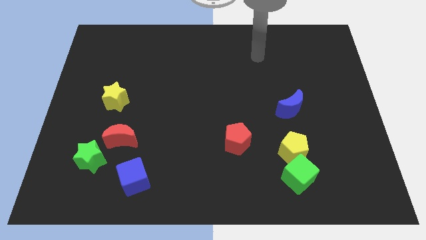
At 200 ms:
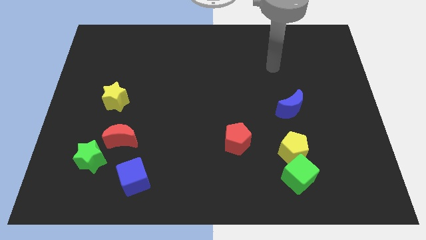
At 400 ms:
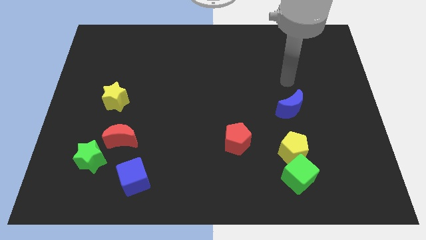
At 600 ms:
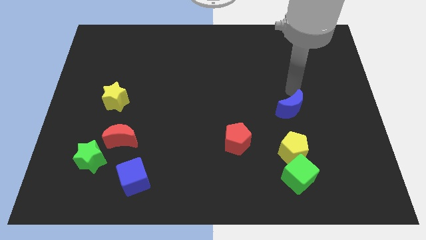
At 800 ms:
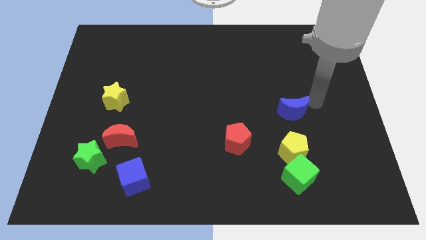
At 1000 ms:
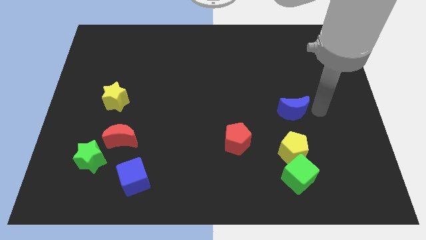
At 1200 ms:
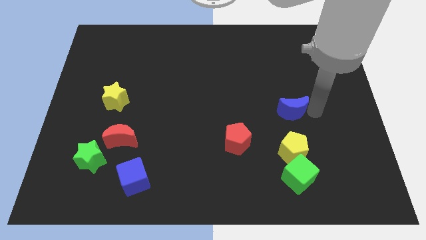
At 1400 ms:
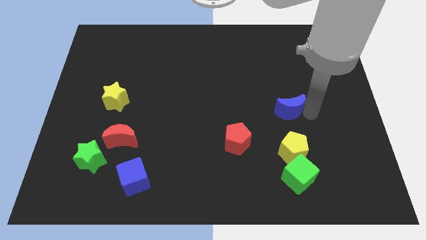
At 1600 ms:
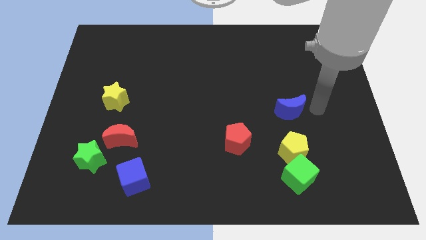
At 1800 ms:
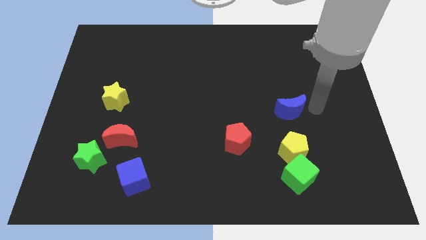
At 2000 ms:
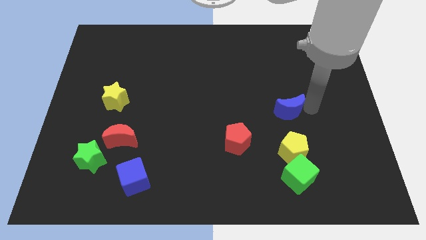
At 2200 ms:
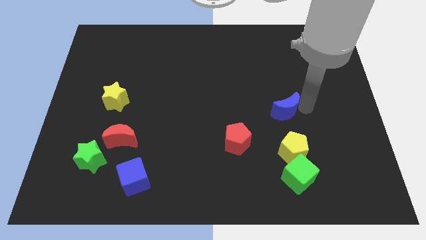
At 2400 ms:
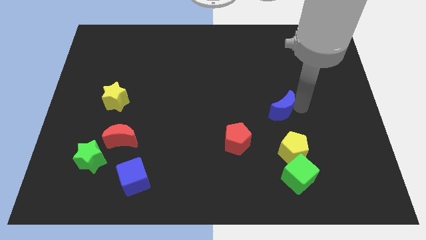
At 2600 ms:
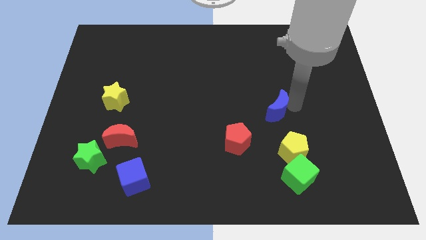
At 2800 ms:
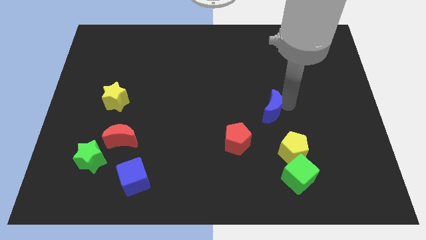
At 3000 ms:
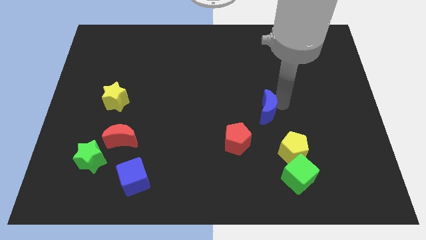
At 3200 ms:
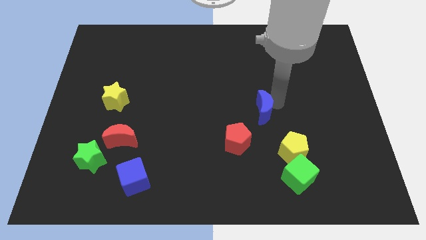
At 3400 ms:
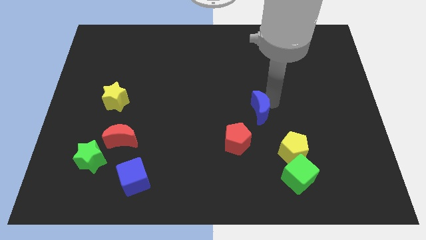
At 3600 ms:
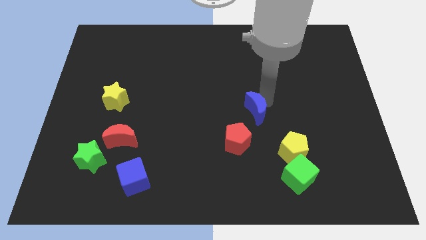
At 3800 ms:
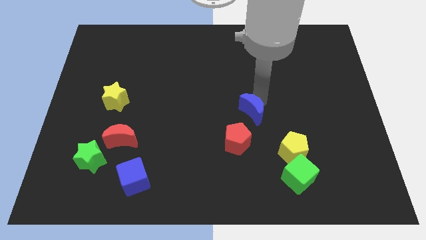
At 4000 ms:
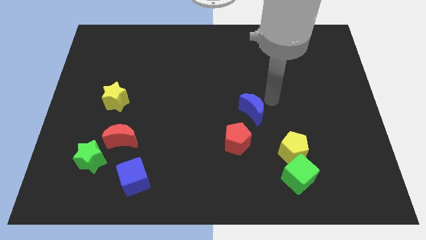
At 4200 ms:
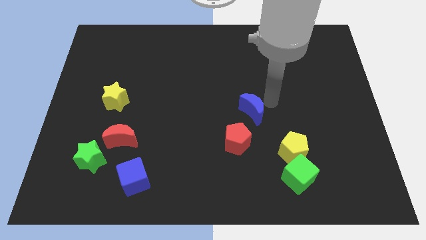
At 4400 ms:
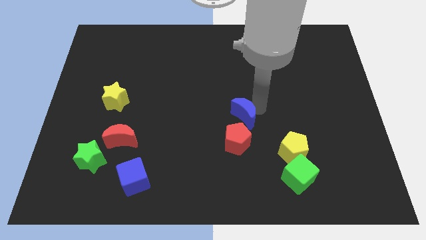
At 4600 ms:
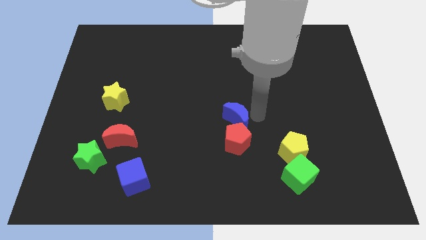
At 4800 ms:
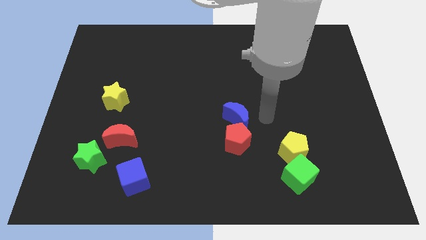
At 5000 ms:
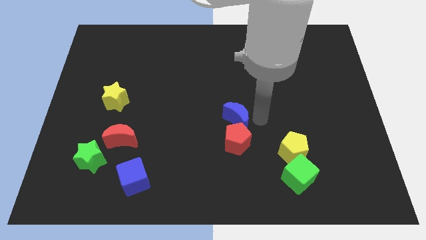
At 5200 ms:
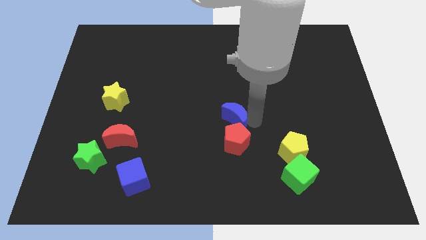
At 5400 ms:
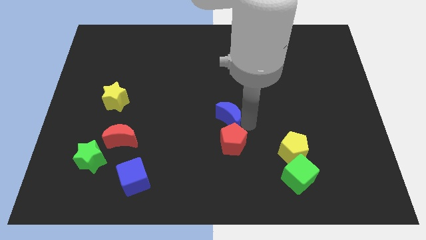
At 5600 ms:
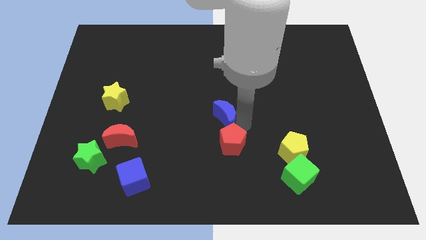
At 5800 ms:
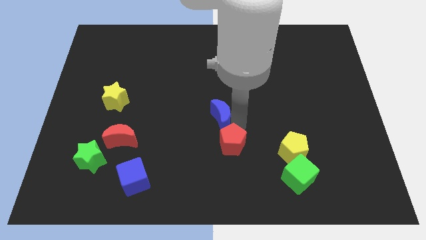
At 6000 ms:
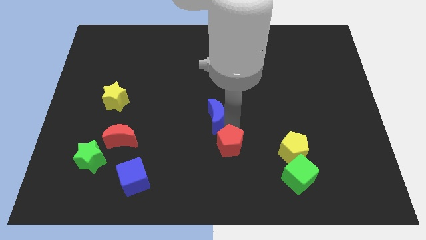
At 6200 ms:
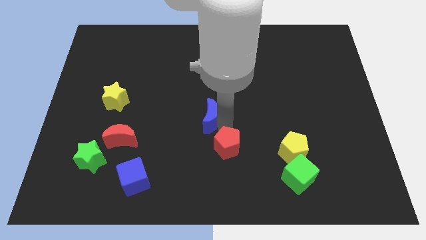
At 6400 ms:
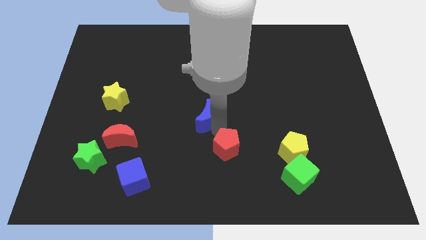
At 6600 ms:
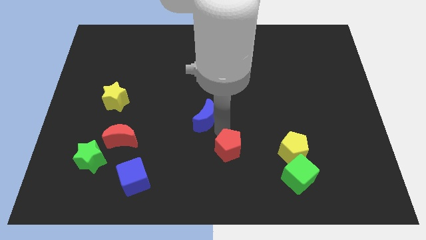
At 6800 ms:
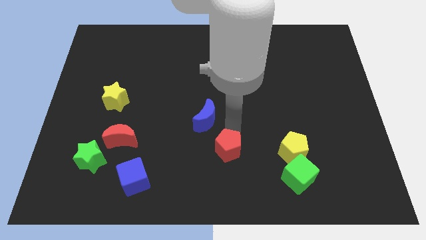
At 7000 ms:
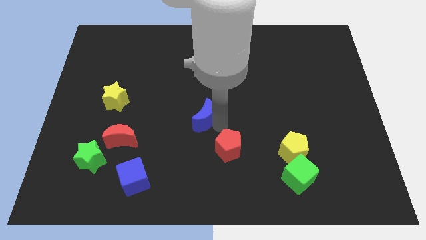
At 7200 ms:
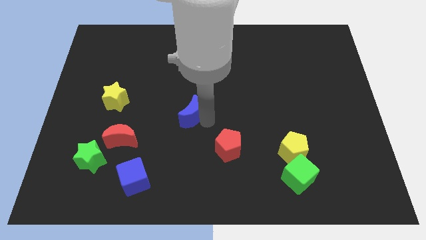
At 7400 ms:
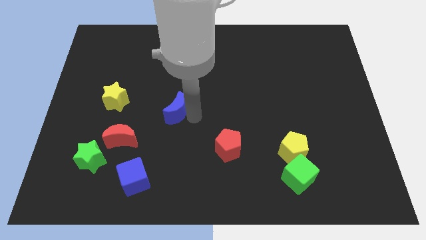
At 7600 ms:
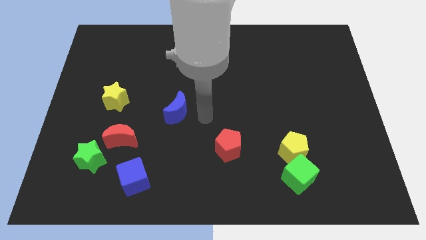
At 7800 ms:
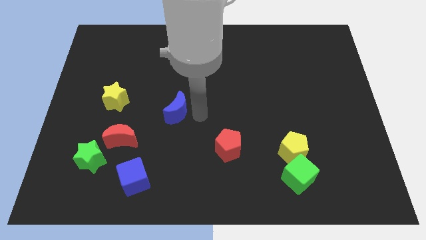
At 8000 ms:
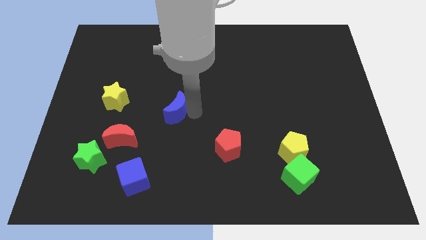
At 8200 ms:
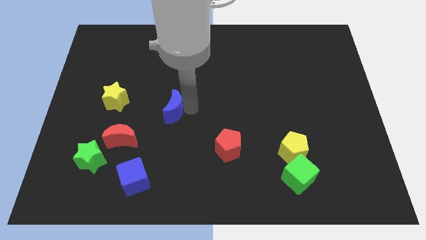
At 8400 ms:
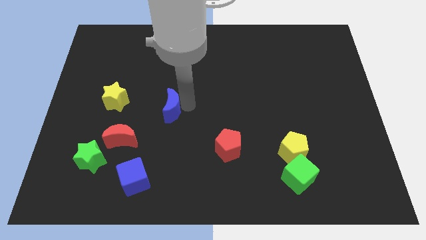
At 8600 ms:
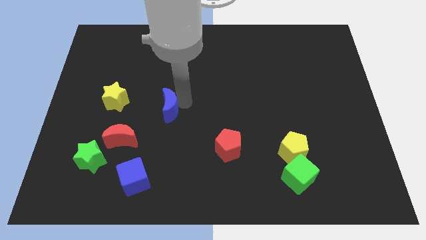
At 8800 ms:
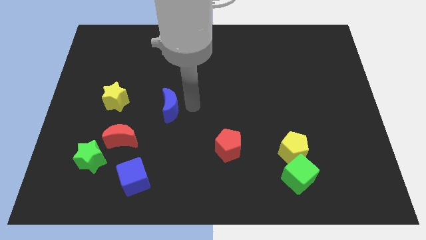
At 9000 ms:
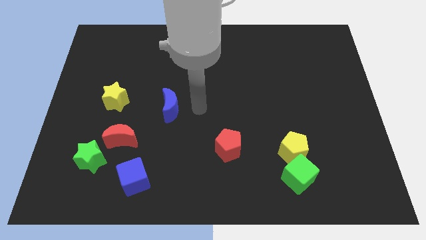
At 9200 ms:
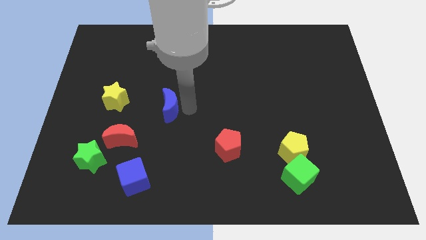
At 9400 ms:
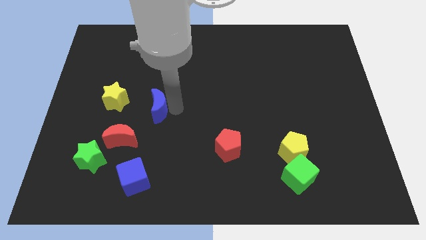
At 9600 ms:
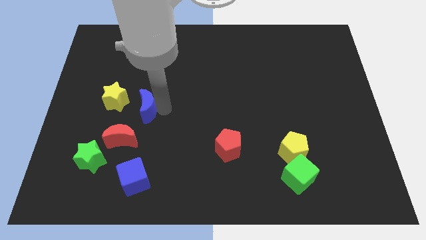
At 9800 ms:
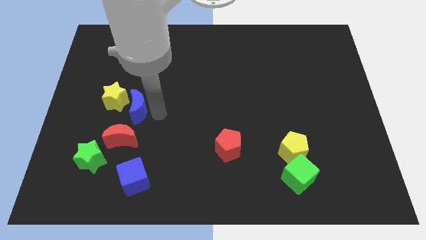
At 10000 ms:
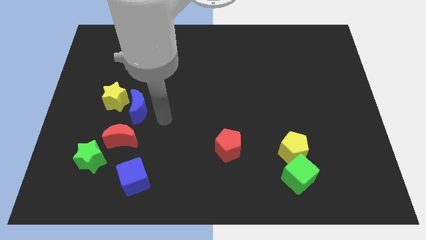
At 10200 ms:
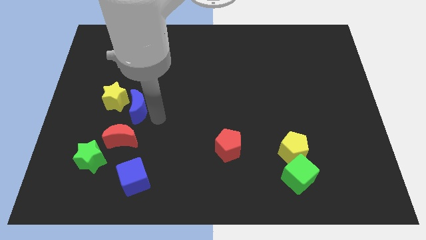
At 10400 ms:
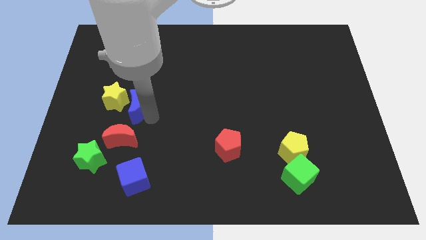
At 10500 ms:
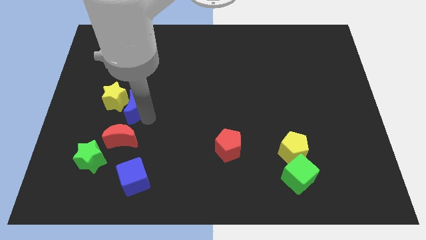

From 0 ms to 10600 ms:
push the blue moon to the yellow star

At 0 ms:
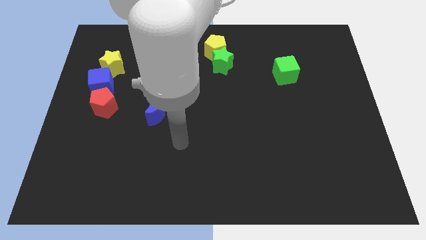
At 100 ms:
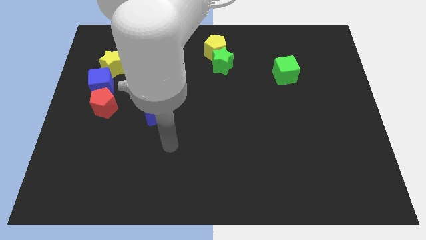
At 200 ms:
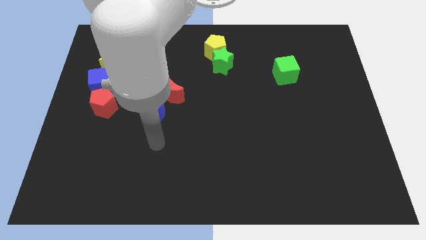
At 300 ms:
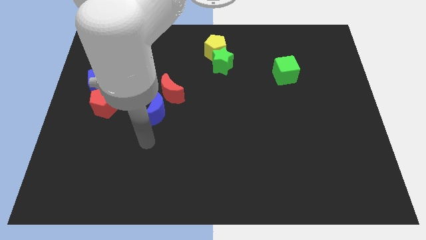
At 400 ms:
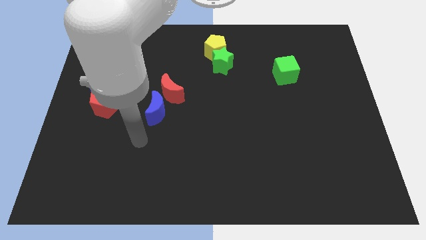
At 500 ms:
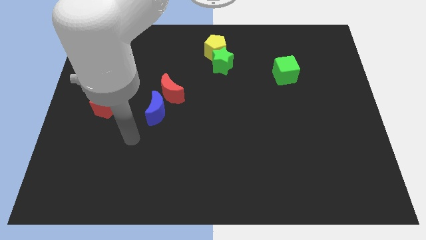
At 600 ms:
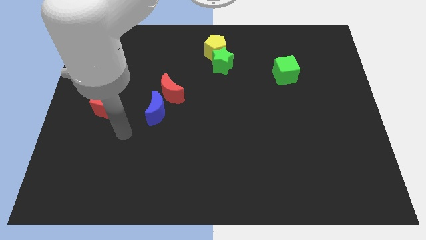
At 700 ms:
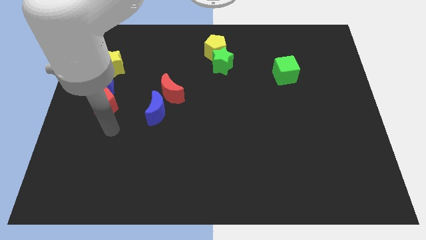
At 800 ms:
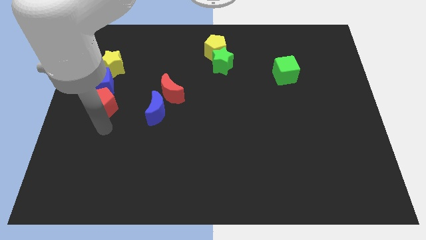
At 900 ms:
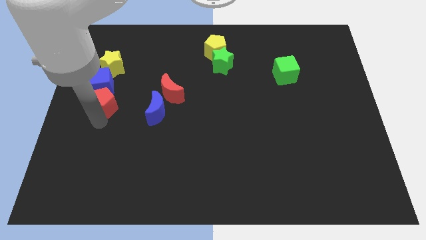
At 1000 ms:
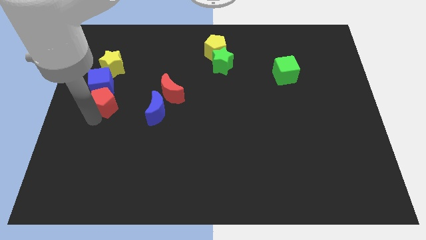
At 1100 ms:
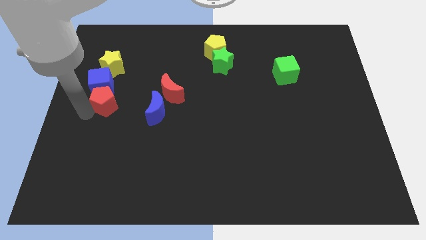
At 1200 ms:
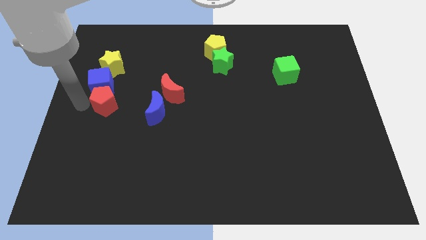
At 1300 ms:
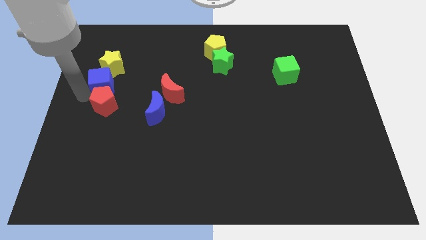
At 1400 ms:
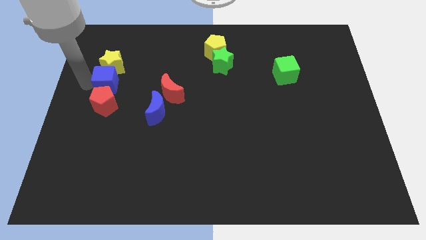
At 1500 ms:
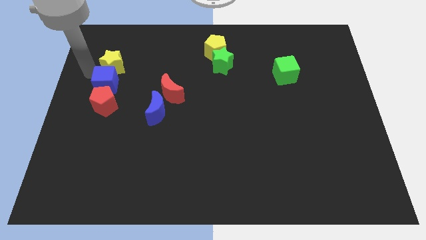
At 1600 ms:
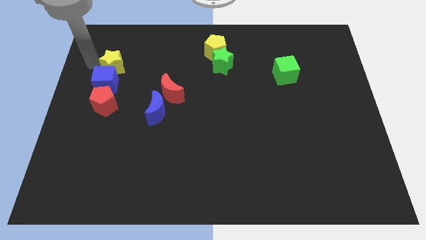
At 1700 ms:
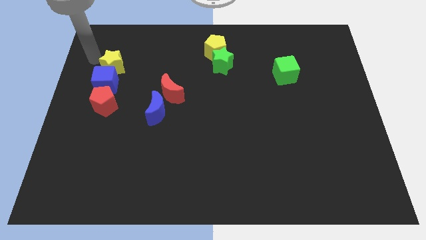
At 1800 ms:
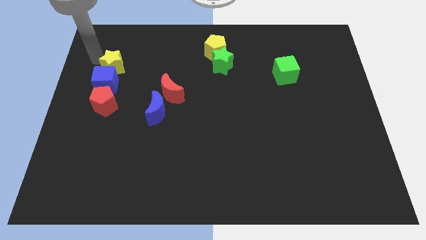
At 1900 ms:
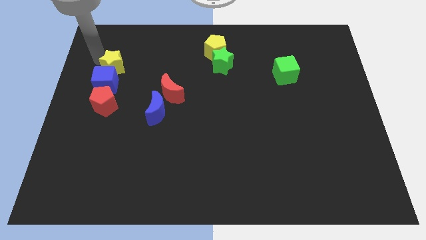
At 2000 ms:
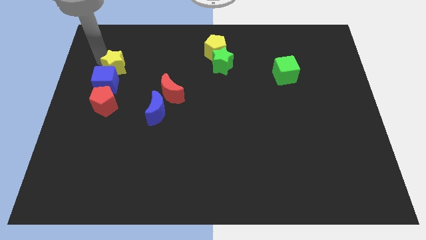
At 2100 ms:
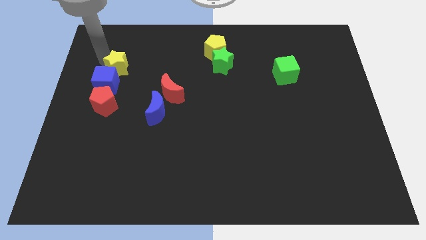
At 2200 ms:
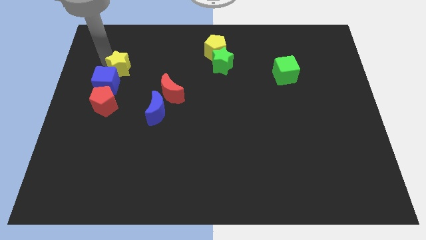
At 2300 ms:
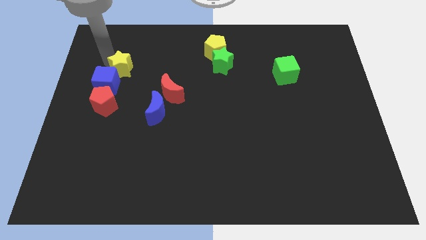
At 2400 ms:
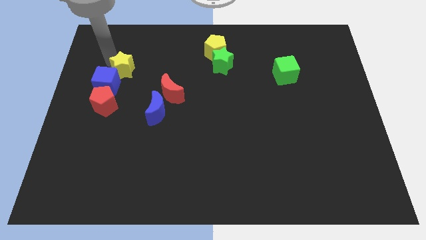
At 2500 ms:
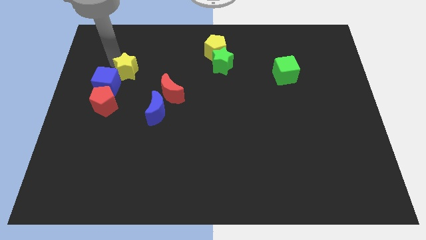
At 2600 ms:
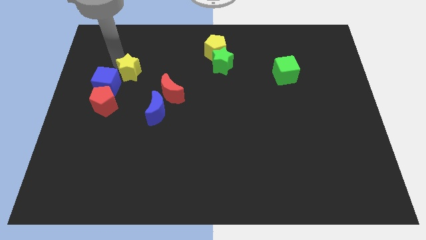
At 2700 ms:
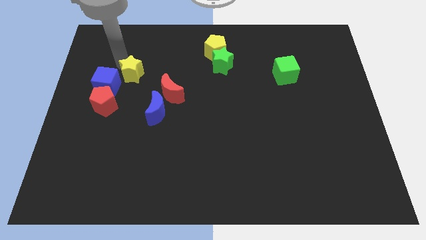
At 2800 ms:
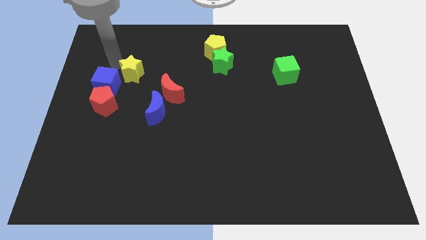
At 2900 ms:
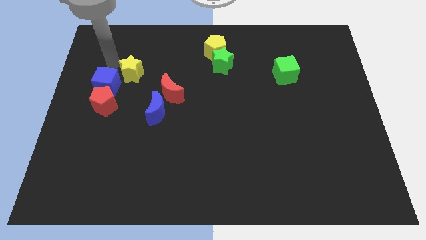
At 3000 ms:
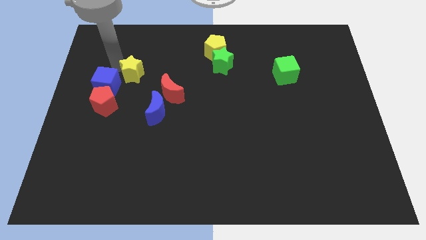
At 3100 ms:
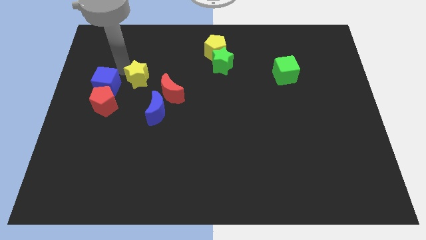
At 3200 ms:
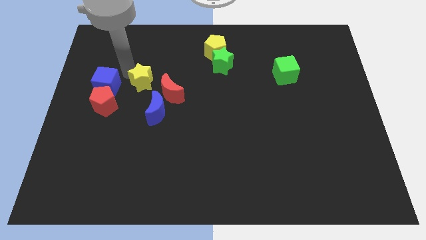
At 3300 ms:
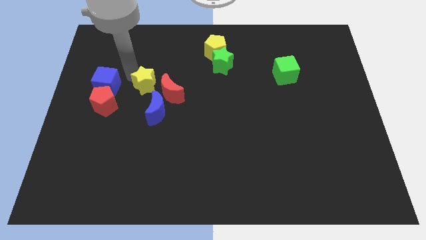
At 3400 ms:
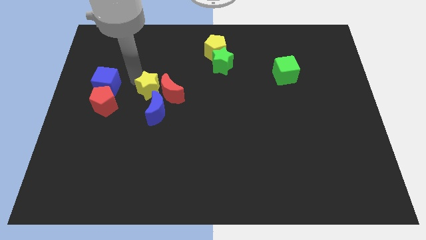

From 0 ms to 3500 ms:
push the yellow star to the red moon
